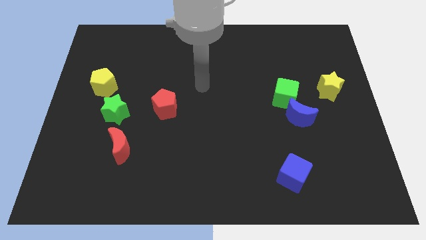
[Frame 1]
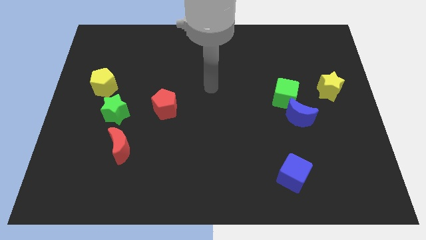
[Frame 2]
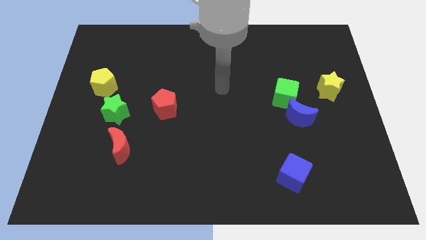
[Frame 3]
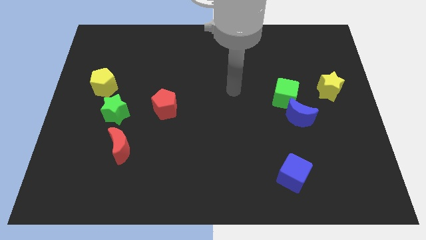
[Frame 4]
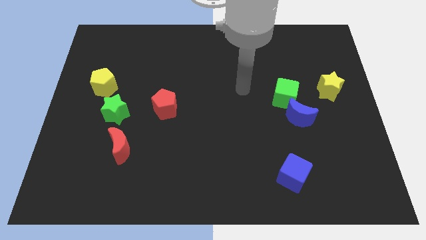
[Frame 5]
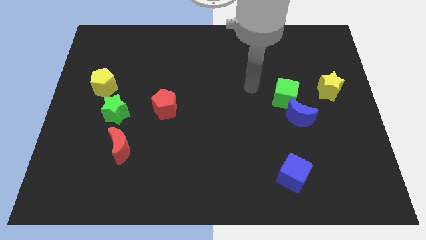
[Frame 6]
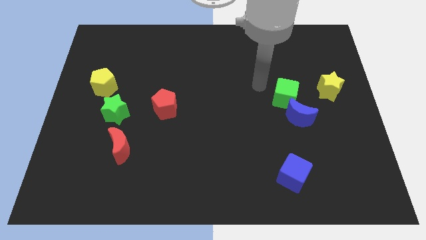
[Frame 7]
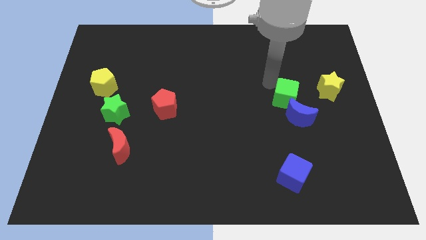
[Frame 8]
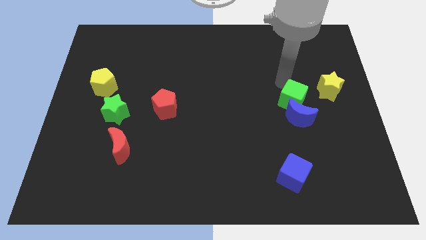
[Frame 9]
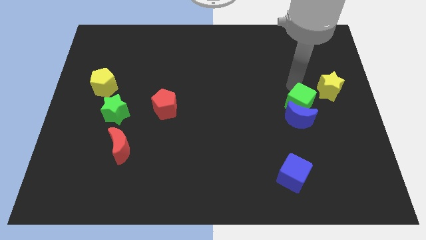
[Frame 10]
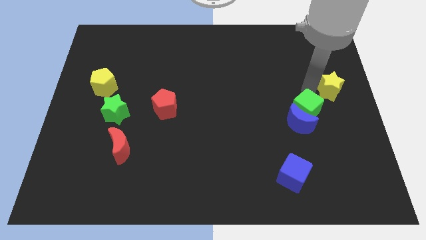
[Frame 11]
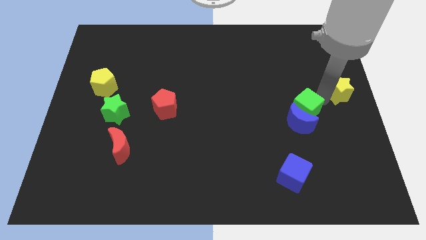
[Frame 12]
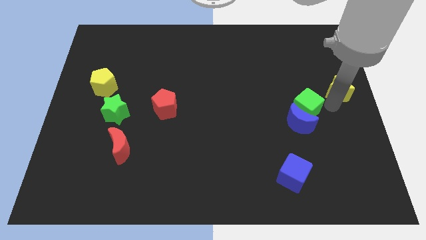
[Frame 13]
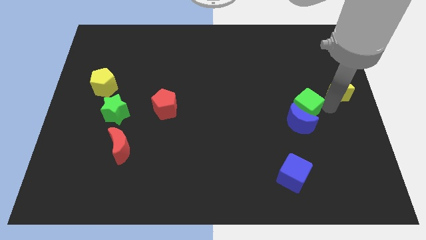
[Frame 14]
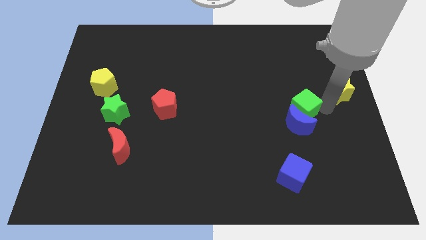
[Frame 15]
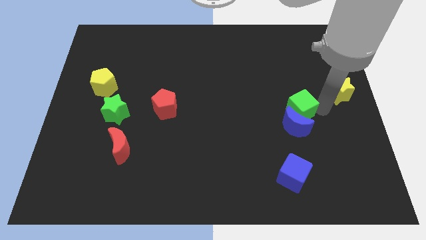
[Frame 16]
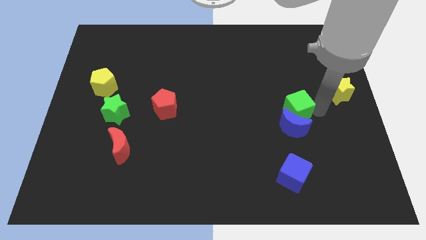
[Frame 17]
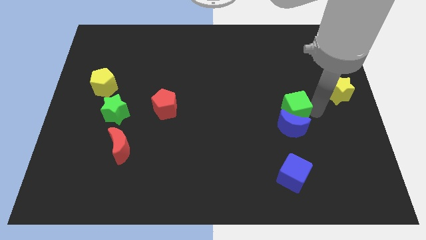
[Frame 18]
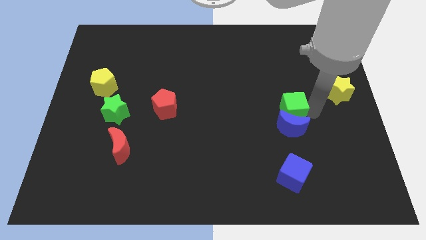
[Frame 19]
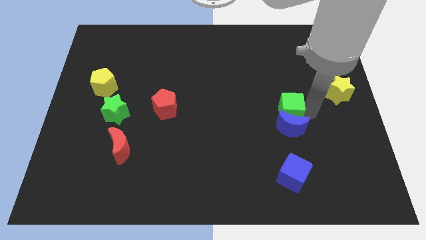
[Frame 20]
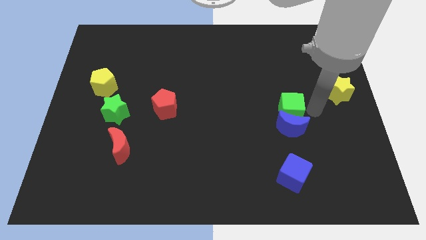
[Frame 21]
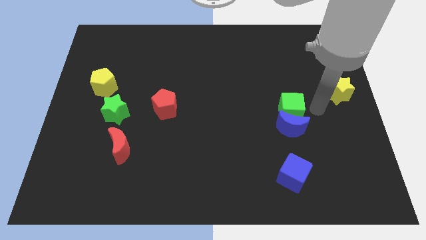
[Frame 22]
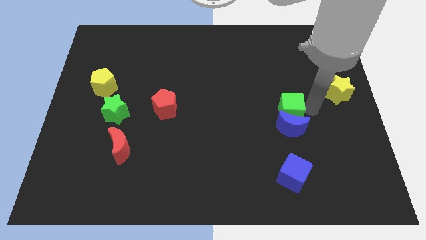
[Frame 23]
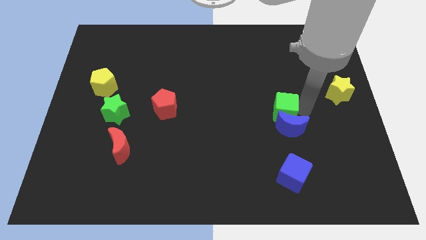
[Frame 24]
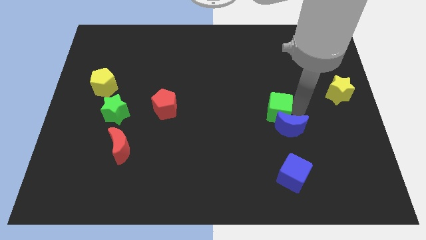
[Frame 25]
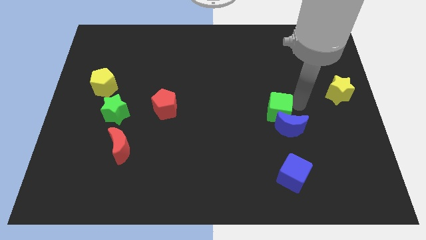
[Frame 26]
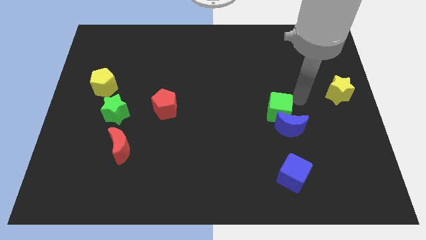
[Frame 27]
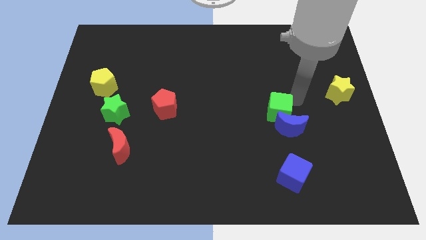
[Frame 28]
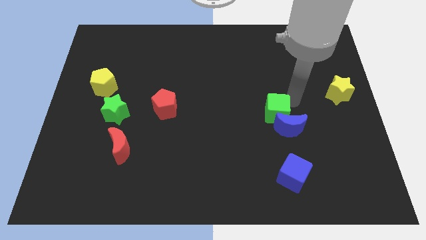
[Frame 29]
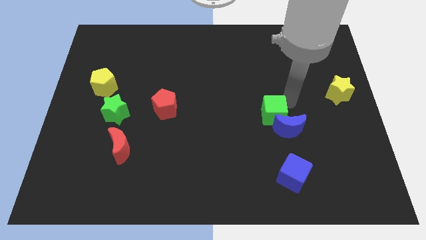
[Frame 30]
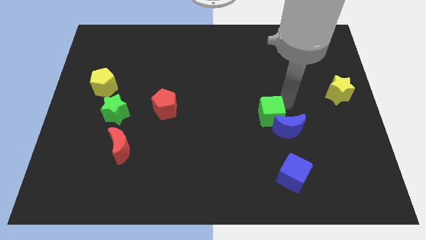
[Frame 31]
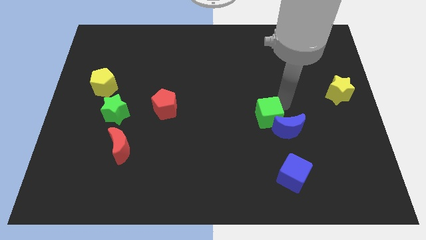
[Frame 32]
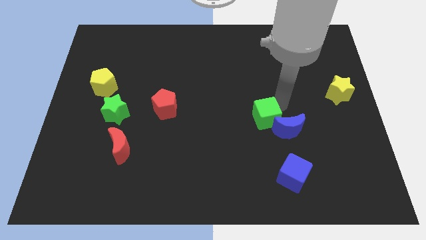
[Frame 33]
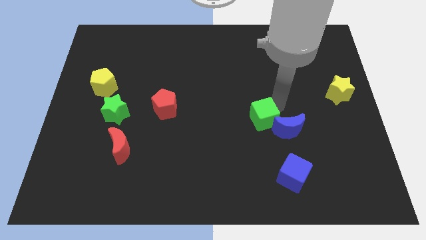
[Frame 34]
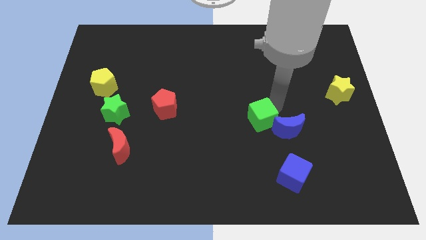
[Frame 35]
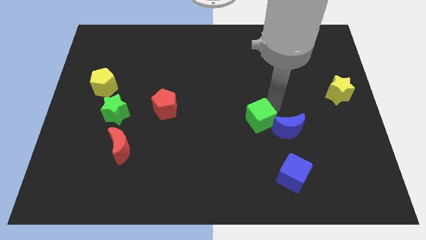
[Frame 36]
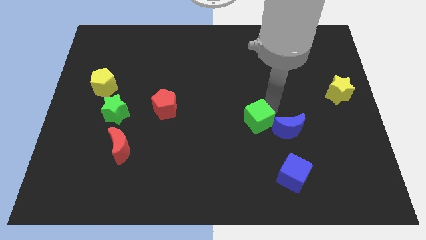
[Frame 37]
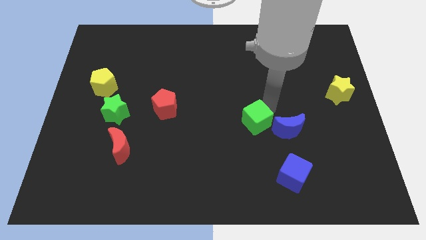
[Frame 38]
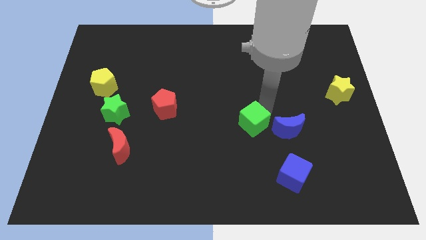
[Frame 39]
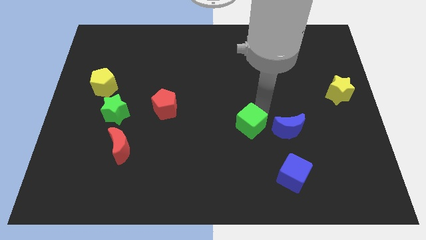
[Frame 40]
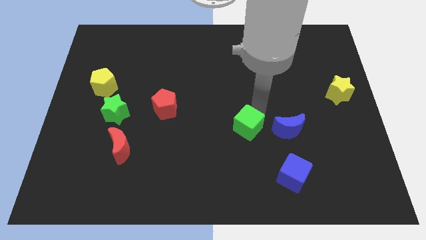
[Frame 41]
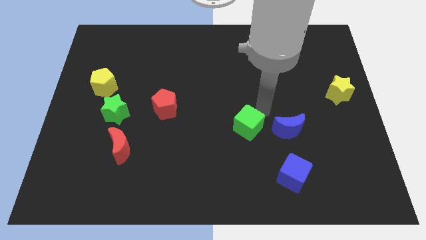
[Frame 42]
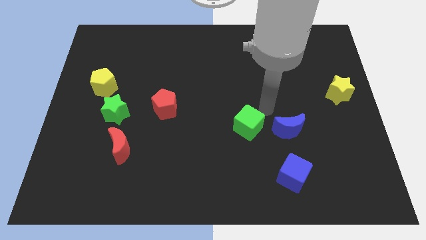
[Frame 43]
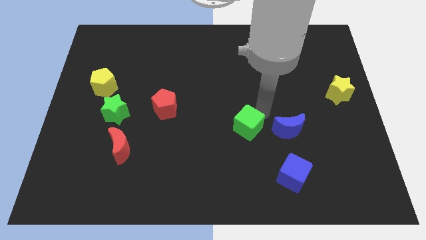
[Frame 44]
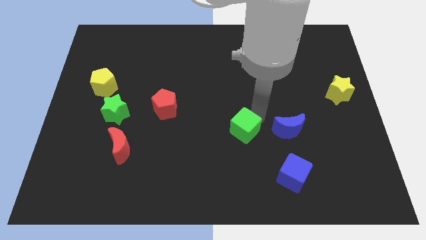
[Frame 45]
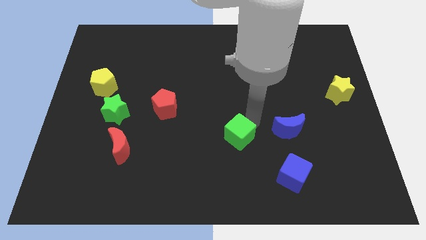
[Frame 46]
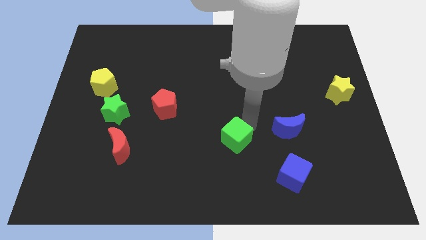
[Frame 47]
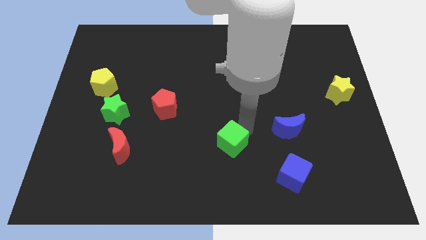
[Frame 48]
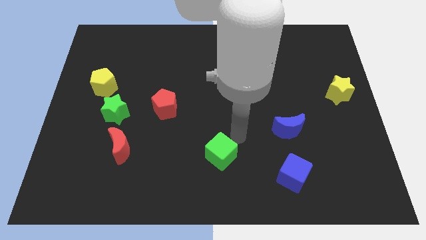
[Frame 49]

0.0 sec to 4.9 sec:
slide the green cube diagonally downwards and left

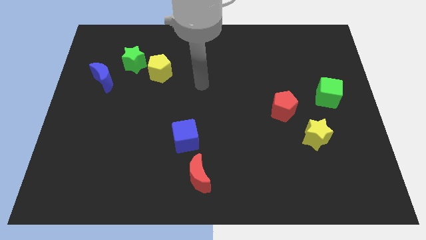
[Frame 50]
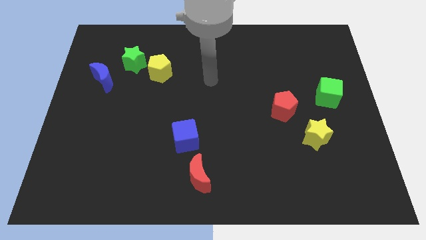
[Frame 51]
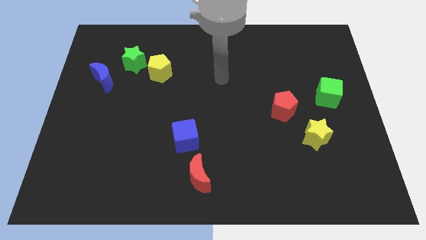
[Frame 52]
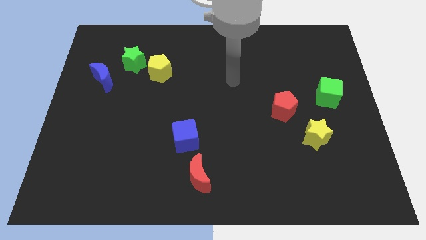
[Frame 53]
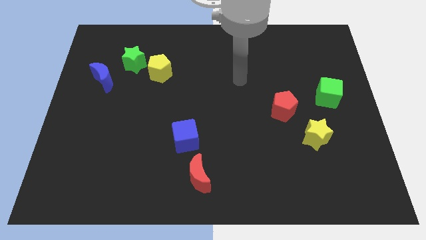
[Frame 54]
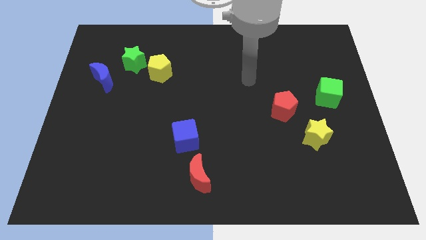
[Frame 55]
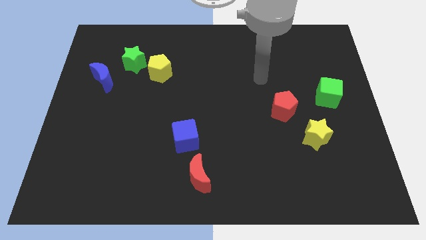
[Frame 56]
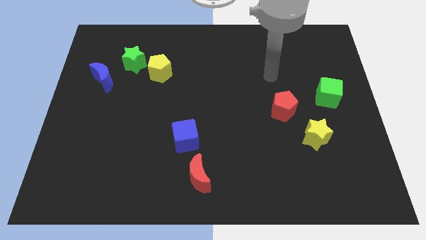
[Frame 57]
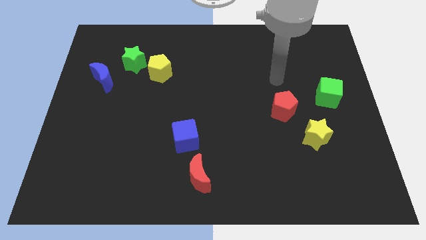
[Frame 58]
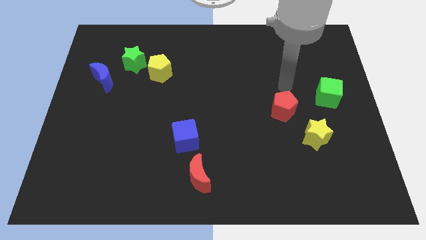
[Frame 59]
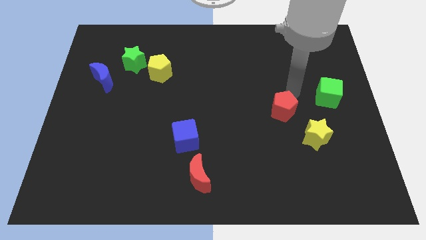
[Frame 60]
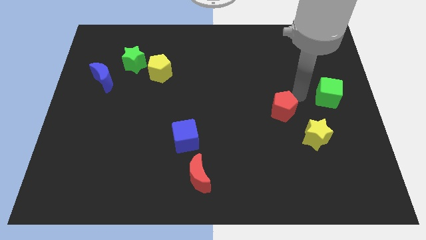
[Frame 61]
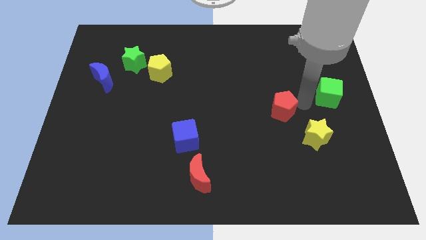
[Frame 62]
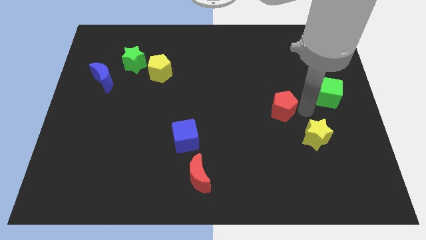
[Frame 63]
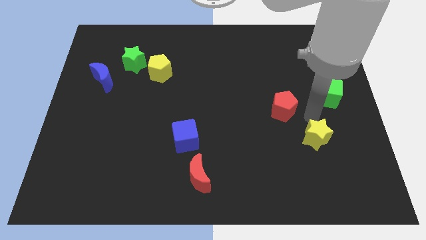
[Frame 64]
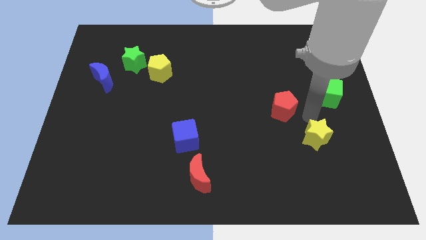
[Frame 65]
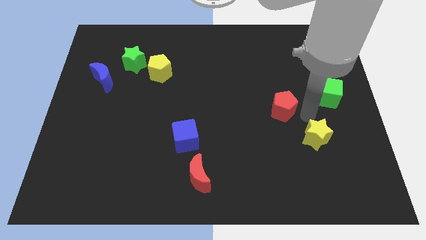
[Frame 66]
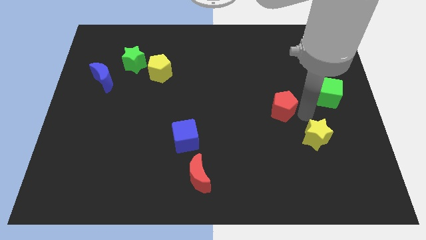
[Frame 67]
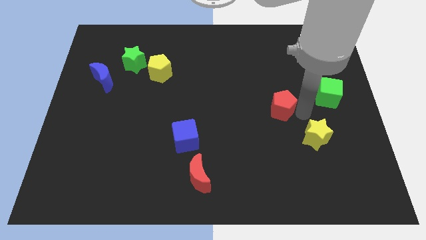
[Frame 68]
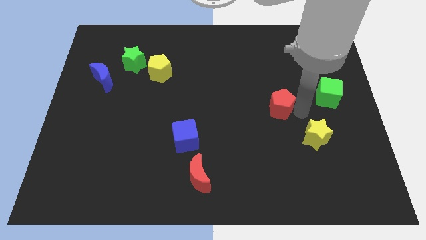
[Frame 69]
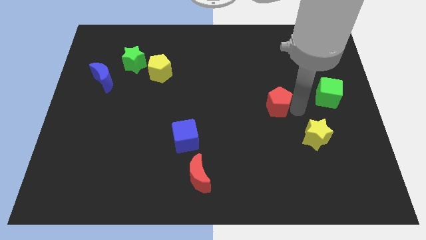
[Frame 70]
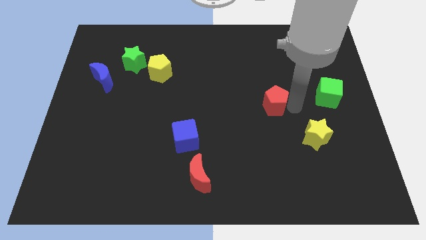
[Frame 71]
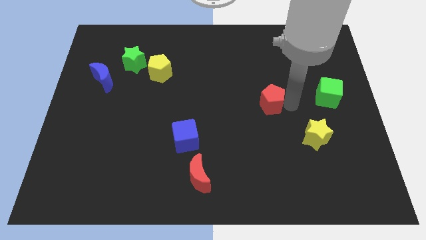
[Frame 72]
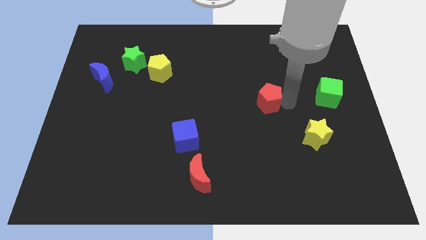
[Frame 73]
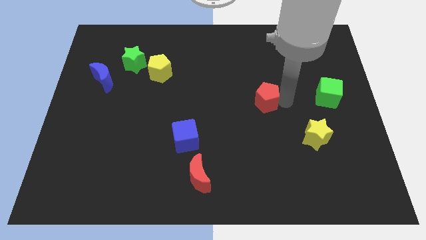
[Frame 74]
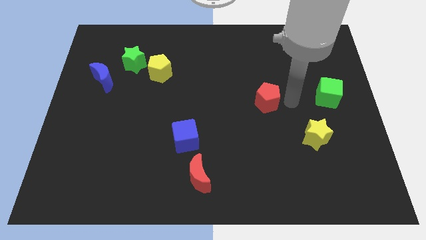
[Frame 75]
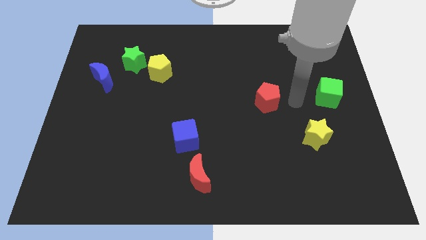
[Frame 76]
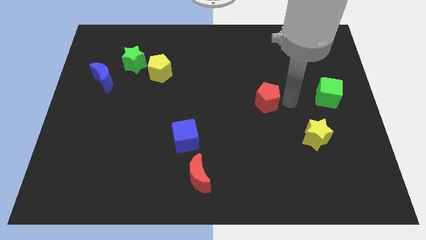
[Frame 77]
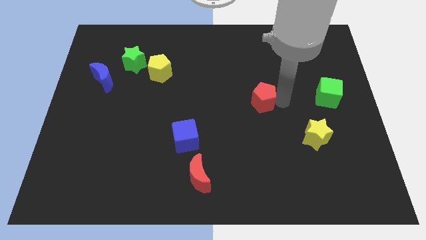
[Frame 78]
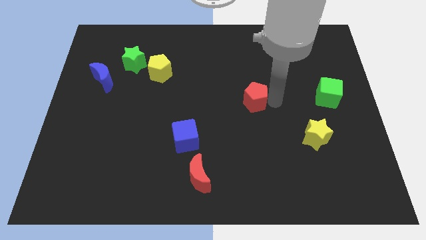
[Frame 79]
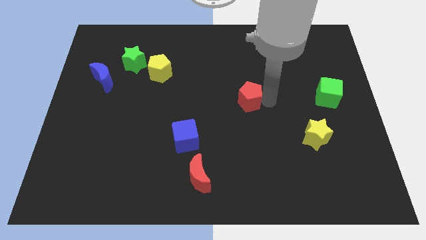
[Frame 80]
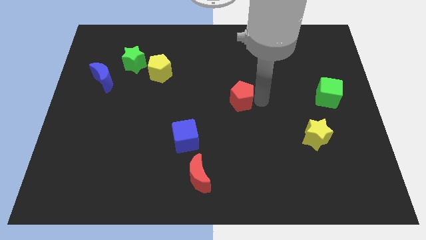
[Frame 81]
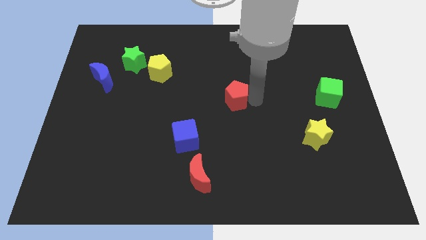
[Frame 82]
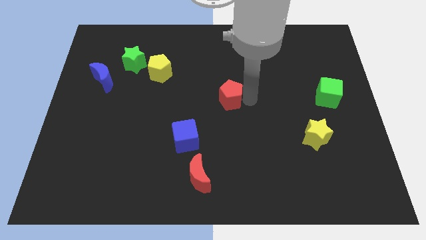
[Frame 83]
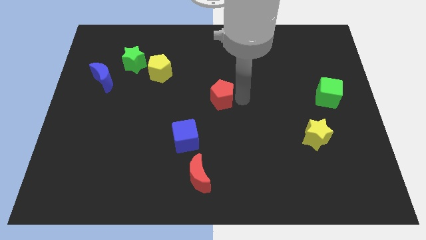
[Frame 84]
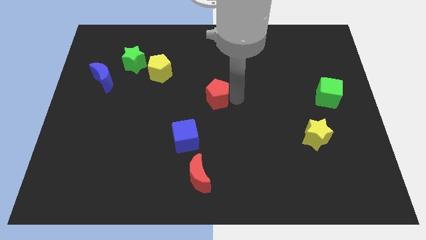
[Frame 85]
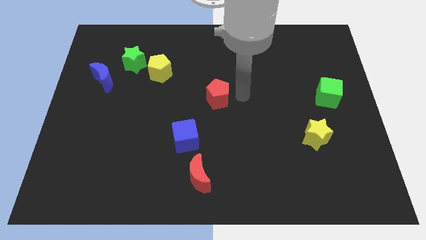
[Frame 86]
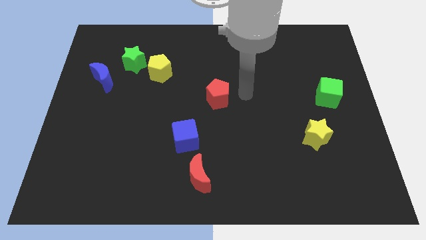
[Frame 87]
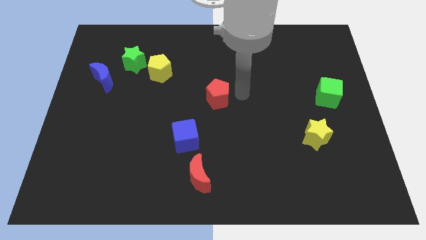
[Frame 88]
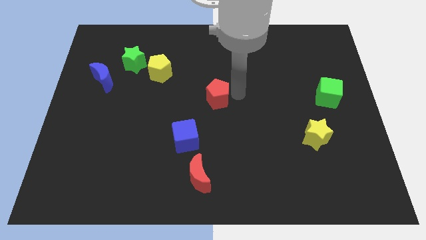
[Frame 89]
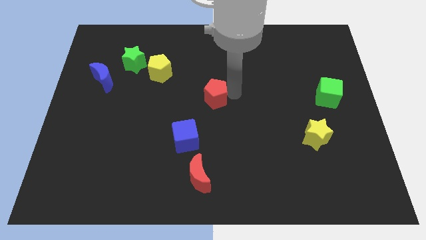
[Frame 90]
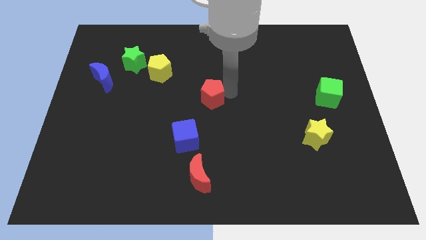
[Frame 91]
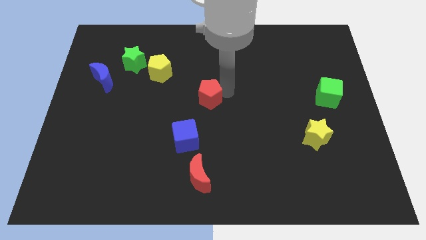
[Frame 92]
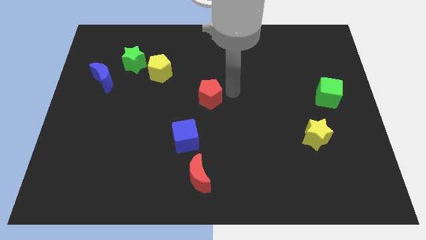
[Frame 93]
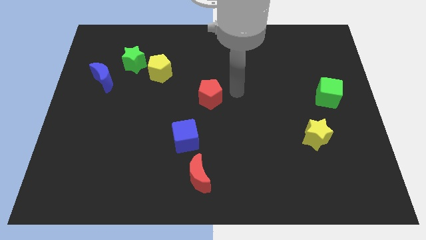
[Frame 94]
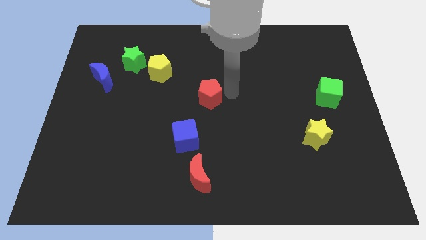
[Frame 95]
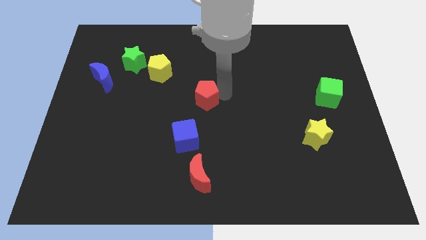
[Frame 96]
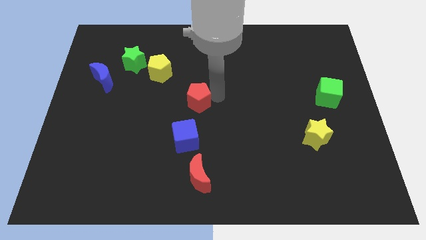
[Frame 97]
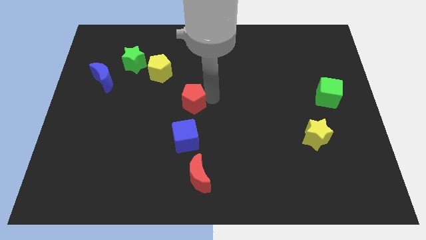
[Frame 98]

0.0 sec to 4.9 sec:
slide the red pentagon left
